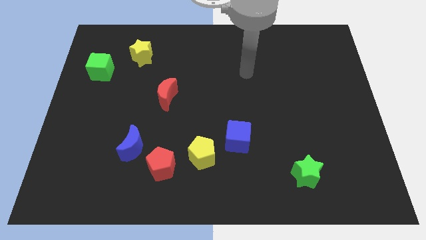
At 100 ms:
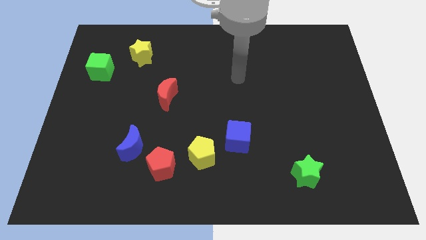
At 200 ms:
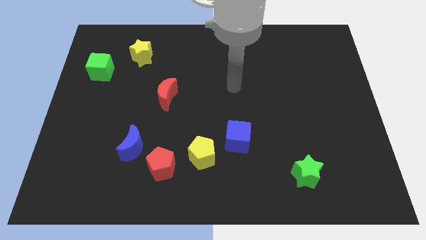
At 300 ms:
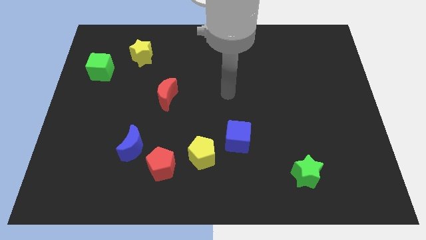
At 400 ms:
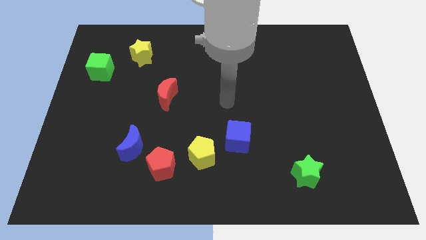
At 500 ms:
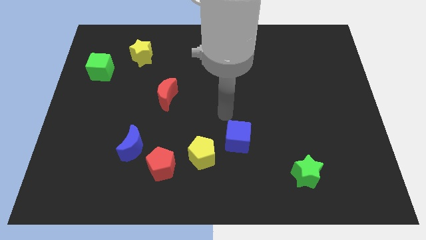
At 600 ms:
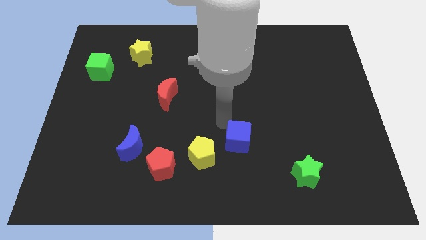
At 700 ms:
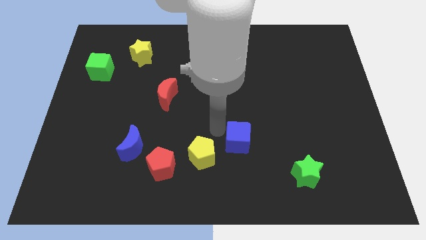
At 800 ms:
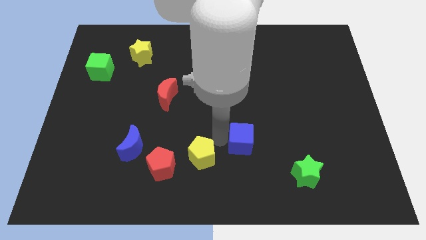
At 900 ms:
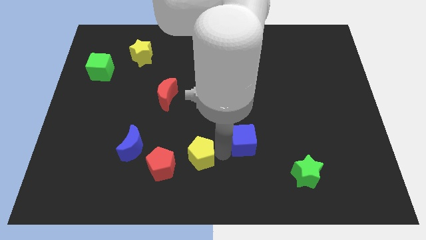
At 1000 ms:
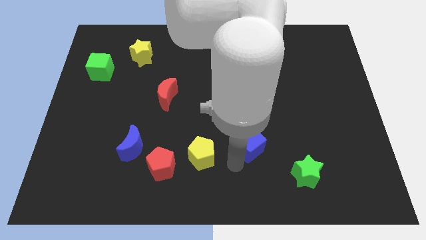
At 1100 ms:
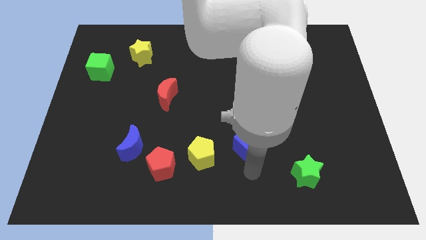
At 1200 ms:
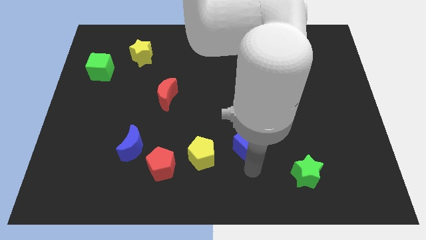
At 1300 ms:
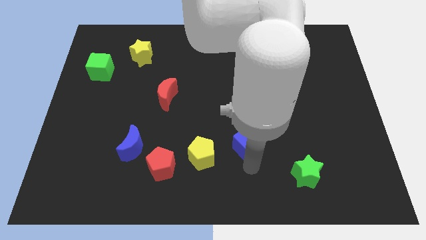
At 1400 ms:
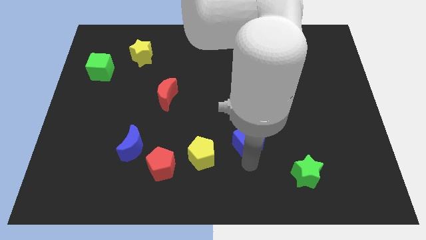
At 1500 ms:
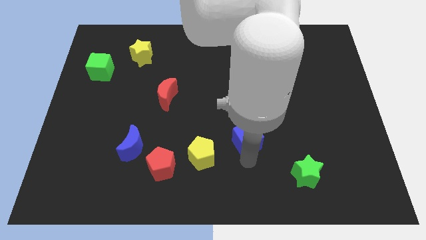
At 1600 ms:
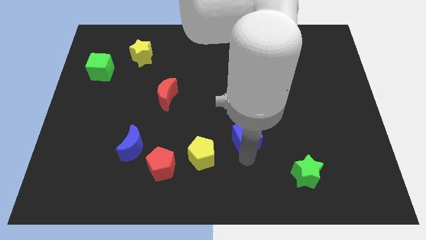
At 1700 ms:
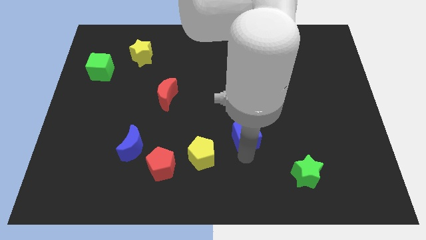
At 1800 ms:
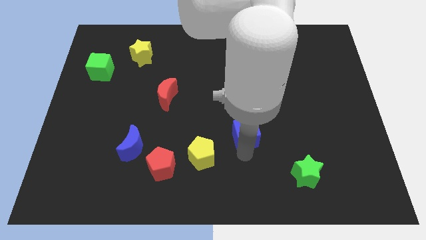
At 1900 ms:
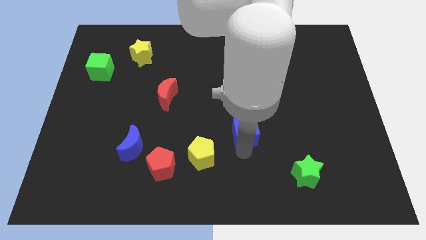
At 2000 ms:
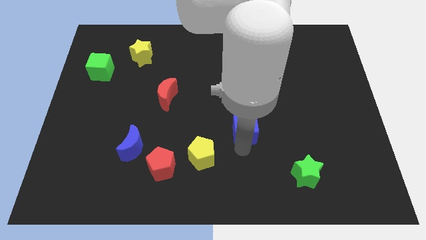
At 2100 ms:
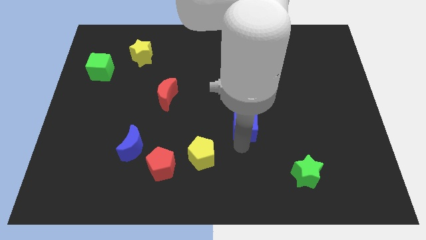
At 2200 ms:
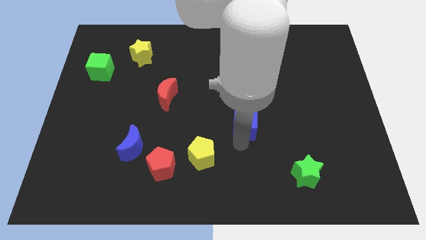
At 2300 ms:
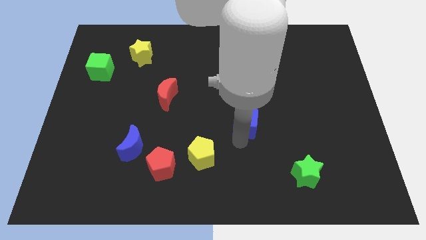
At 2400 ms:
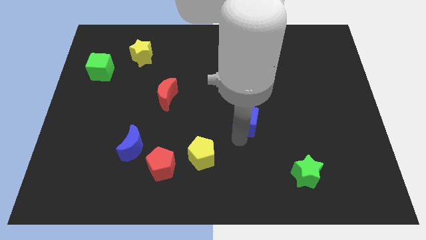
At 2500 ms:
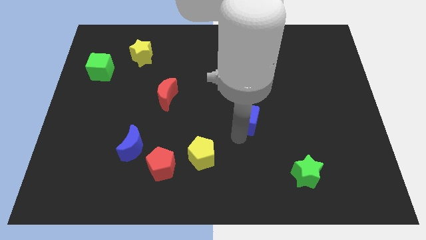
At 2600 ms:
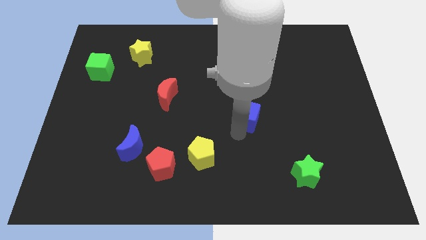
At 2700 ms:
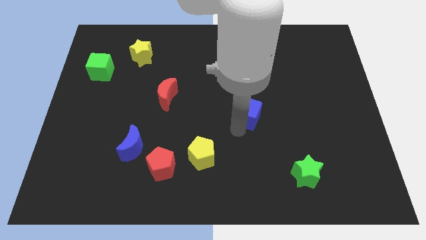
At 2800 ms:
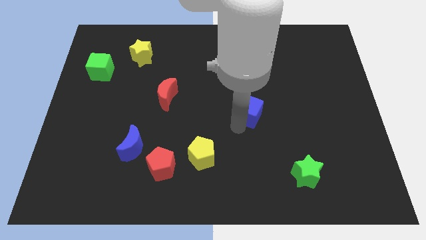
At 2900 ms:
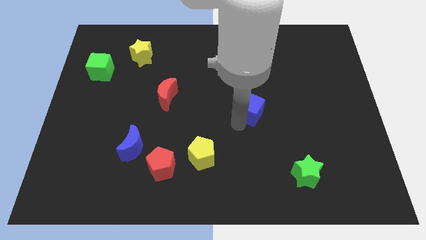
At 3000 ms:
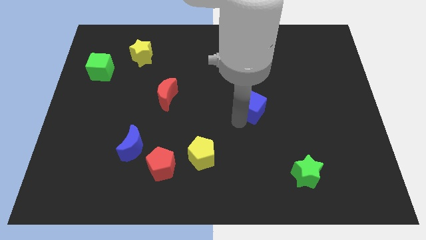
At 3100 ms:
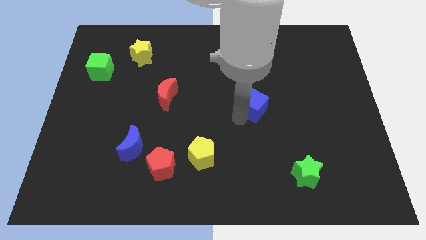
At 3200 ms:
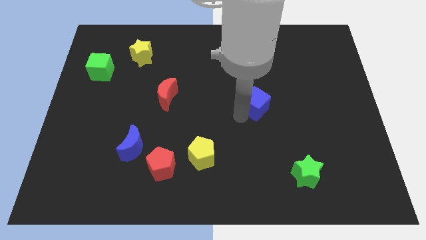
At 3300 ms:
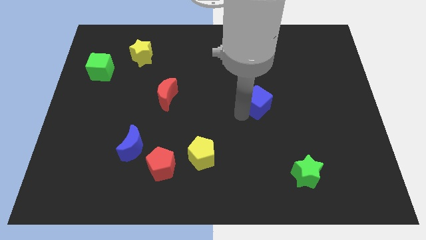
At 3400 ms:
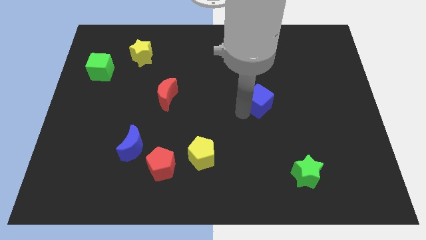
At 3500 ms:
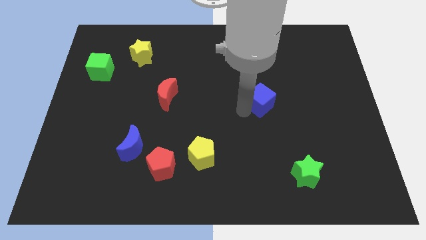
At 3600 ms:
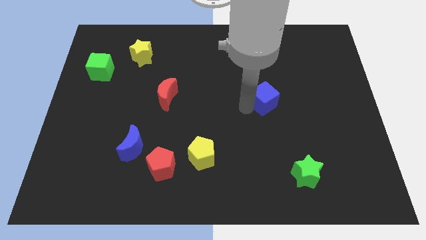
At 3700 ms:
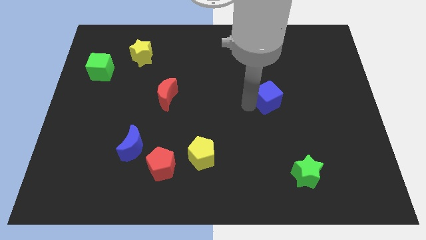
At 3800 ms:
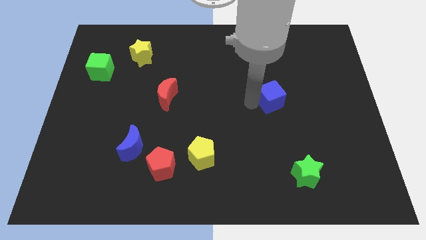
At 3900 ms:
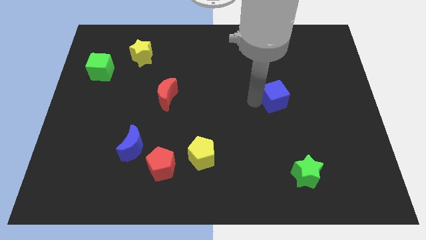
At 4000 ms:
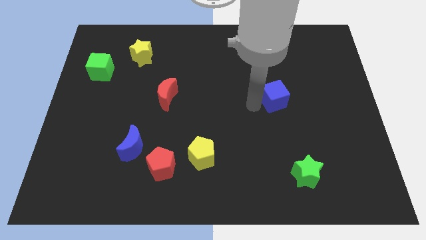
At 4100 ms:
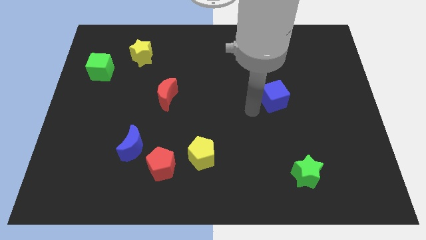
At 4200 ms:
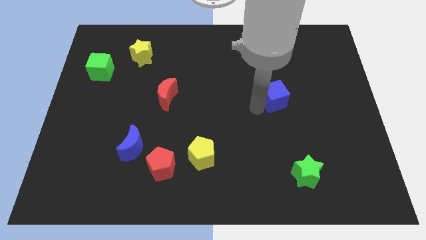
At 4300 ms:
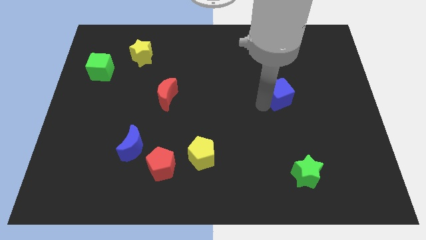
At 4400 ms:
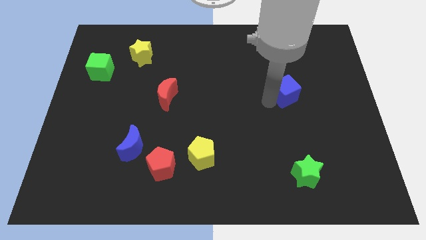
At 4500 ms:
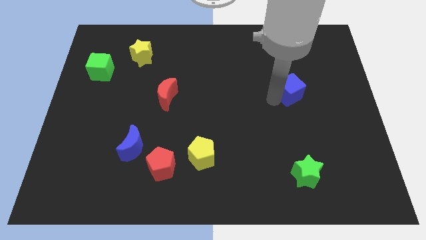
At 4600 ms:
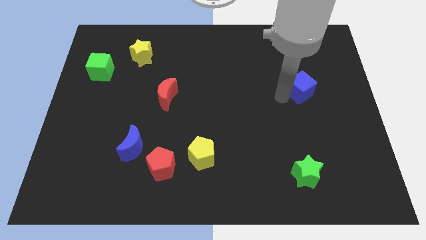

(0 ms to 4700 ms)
move the blue cube diagonally up and to the right

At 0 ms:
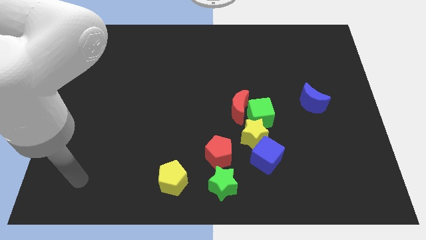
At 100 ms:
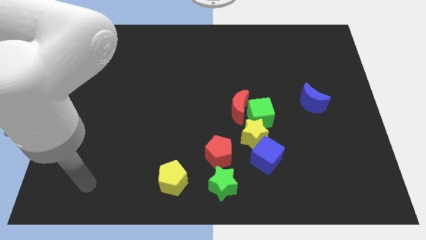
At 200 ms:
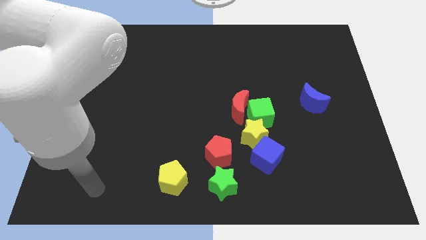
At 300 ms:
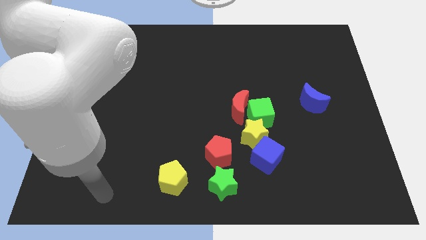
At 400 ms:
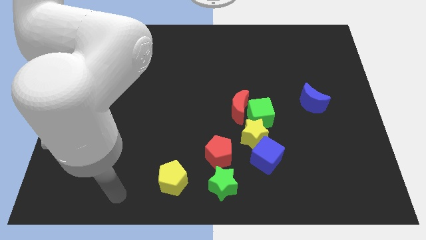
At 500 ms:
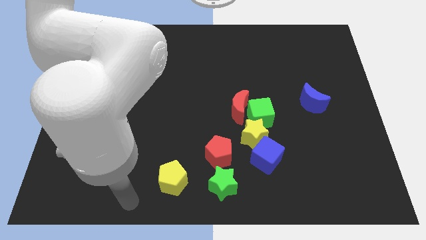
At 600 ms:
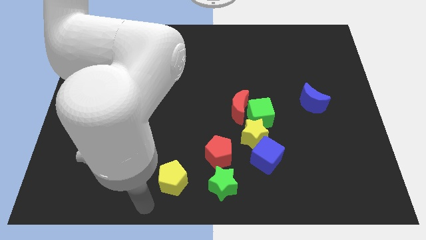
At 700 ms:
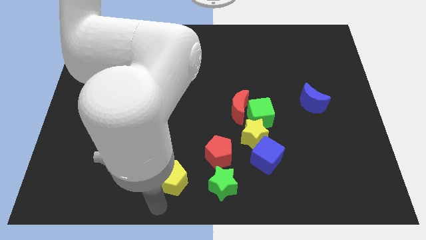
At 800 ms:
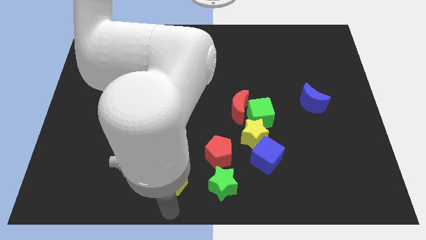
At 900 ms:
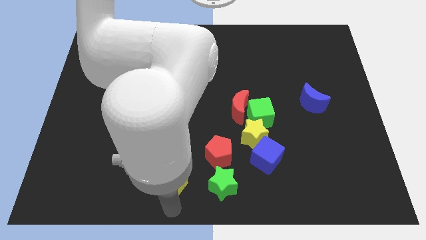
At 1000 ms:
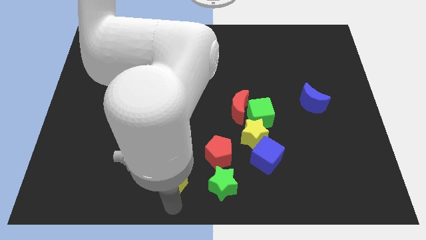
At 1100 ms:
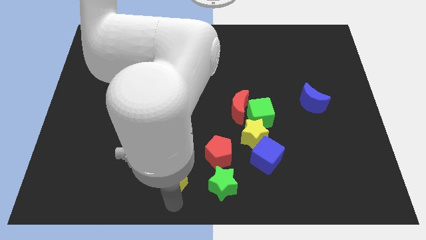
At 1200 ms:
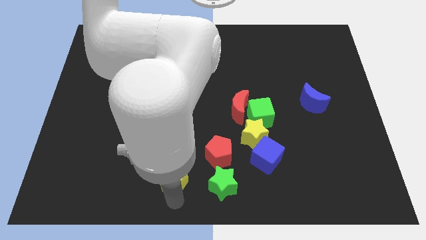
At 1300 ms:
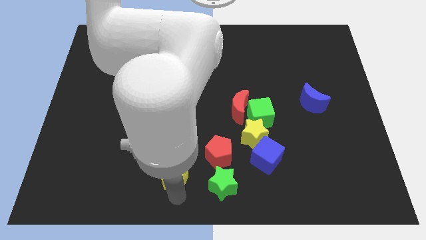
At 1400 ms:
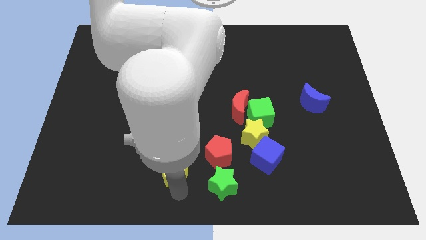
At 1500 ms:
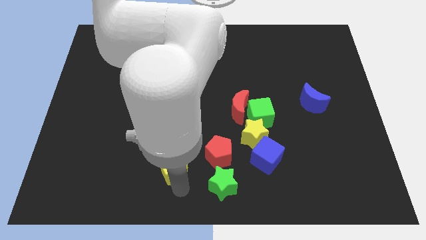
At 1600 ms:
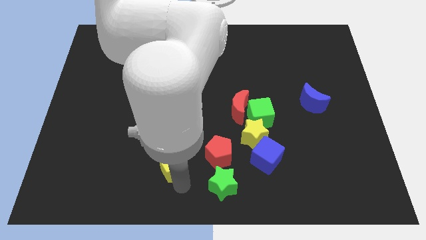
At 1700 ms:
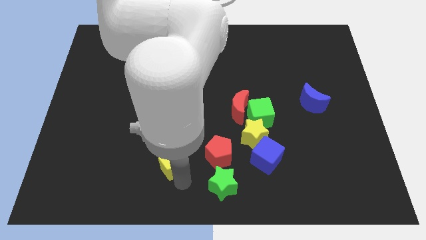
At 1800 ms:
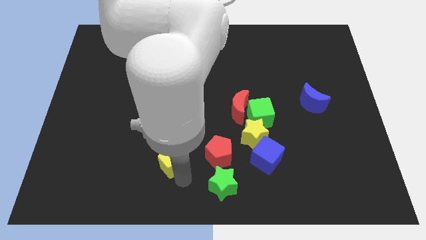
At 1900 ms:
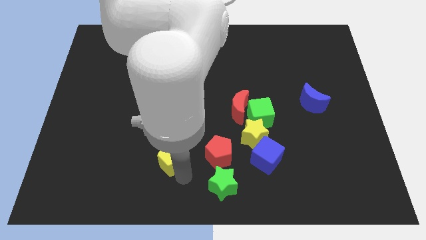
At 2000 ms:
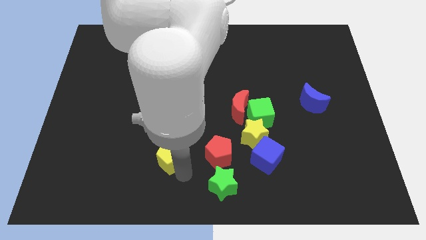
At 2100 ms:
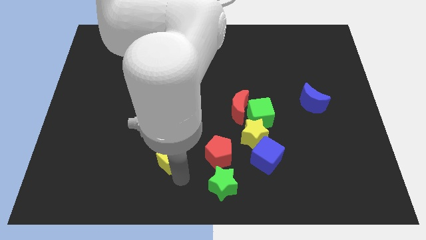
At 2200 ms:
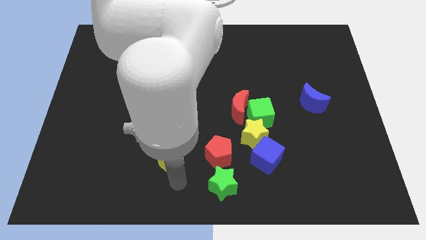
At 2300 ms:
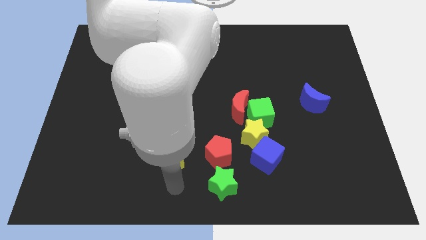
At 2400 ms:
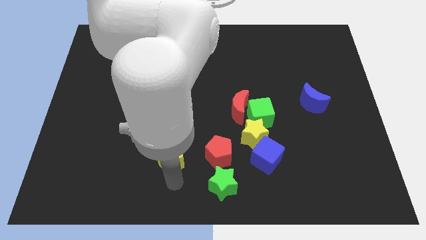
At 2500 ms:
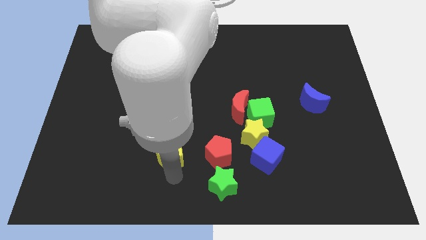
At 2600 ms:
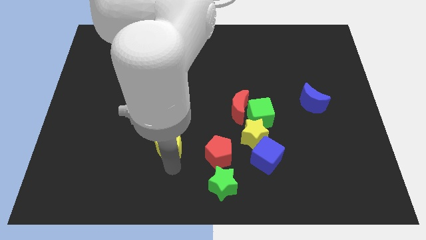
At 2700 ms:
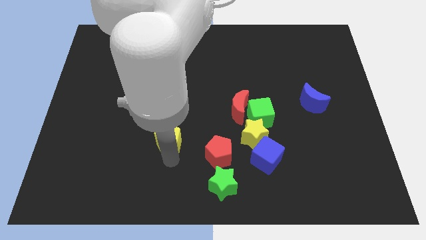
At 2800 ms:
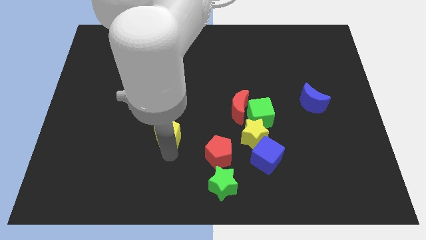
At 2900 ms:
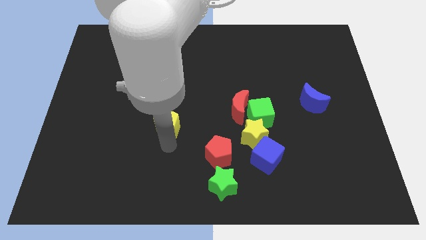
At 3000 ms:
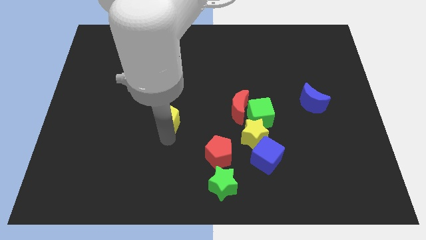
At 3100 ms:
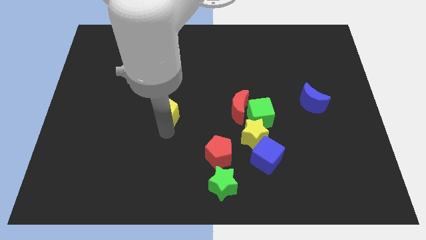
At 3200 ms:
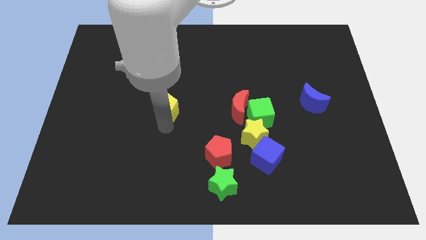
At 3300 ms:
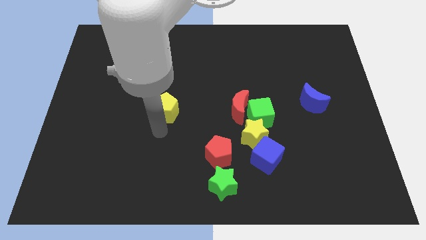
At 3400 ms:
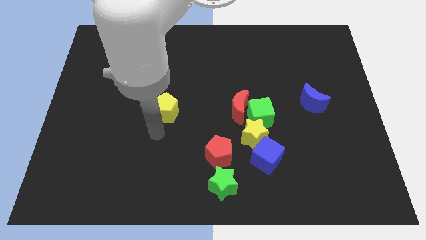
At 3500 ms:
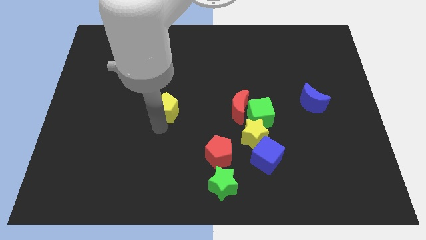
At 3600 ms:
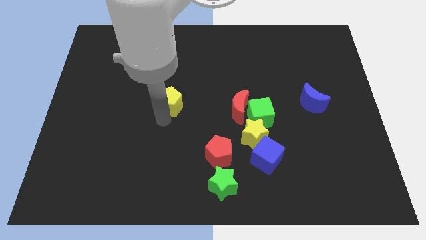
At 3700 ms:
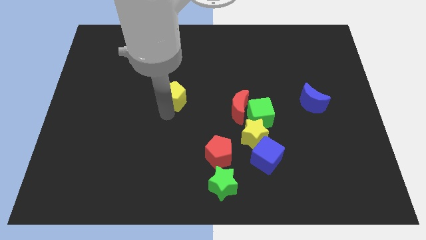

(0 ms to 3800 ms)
slide the yellow pentagon upwards
